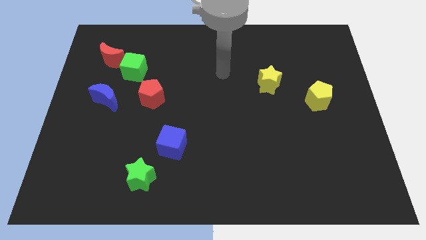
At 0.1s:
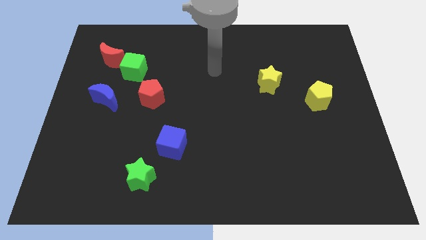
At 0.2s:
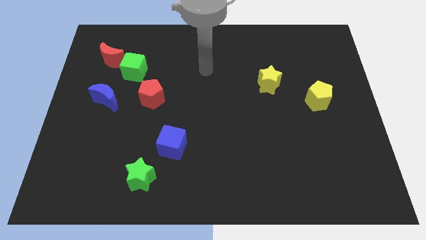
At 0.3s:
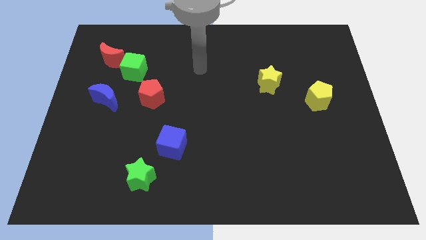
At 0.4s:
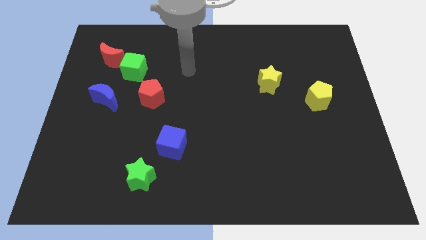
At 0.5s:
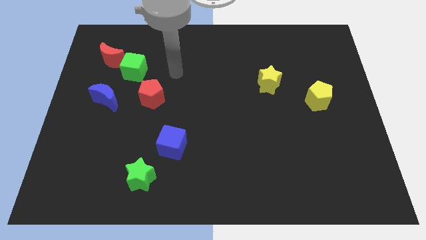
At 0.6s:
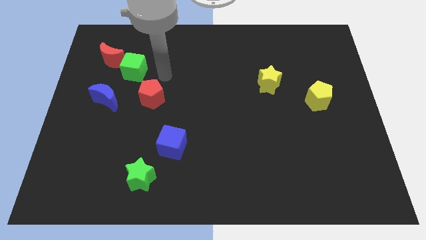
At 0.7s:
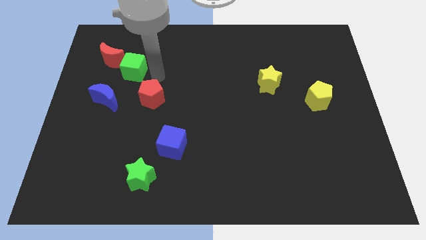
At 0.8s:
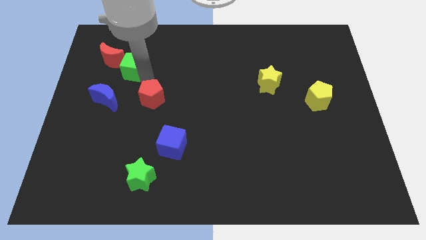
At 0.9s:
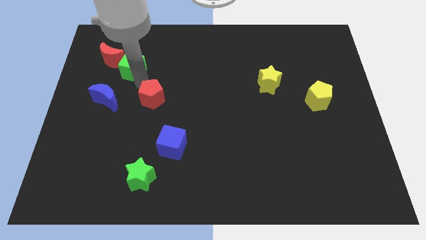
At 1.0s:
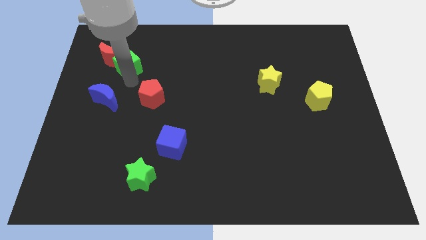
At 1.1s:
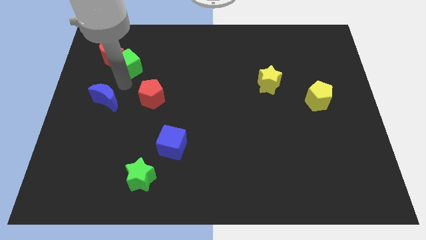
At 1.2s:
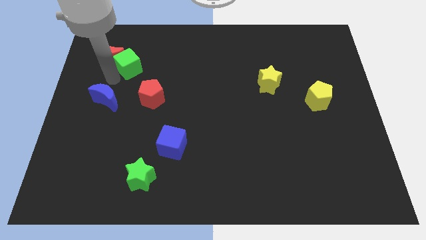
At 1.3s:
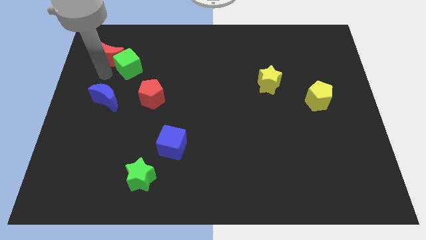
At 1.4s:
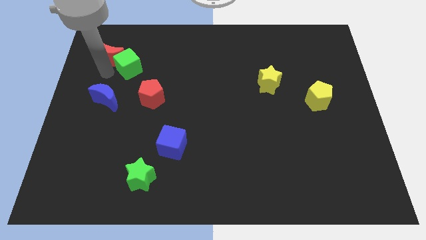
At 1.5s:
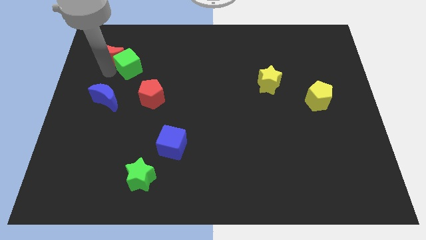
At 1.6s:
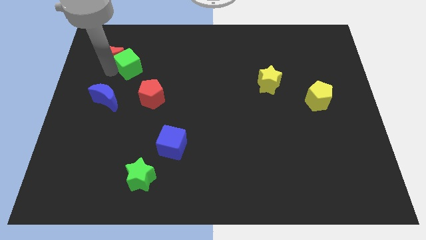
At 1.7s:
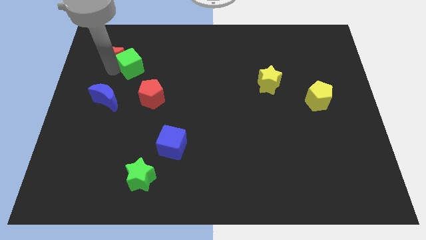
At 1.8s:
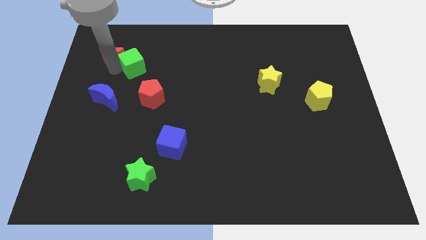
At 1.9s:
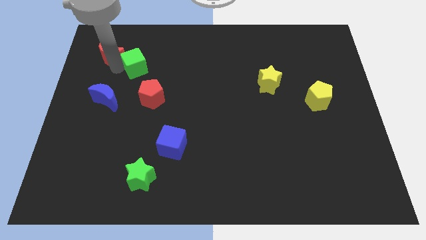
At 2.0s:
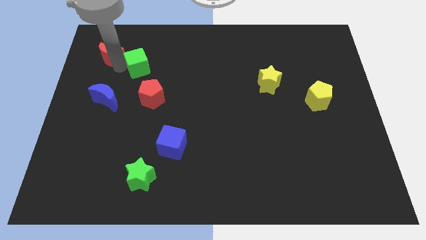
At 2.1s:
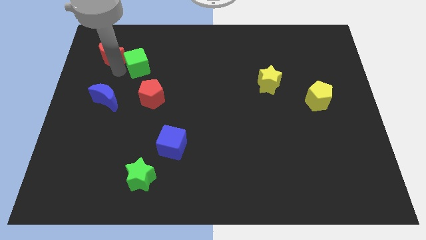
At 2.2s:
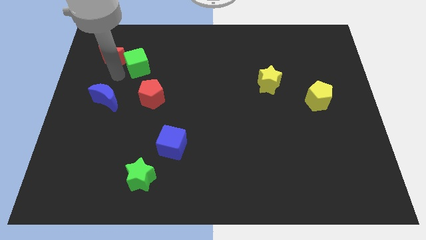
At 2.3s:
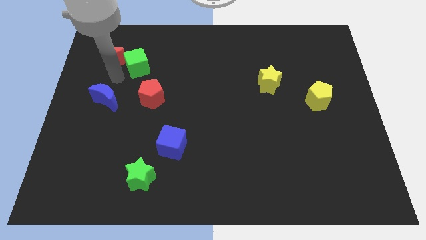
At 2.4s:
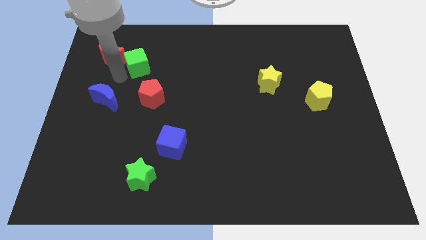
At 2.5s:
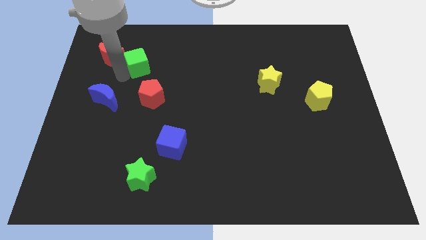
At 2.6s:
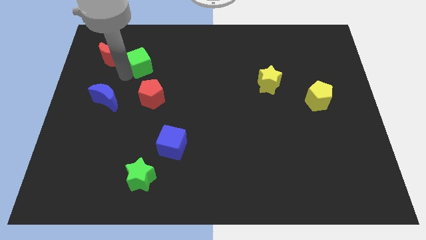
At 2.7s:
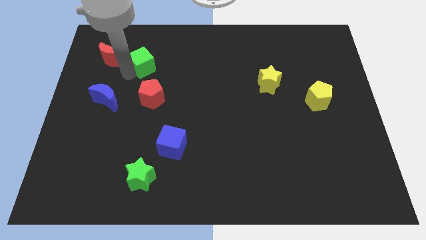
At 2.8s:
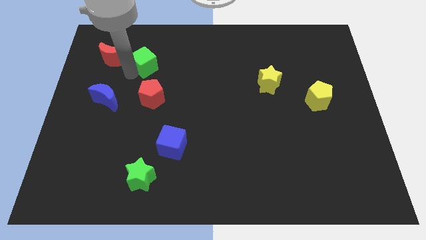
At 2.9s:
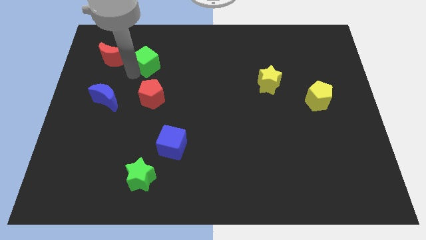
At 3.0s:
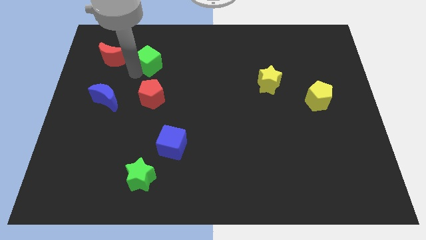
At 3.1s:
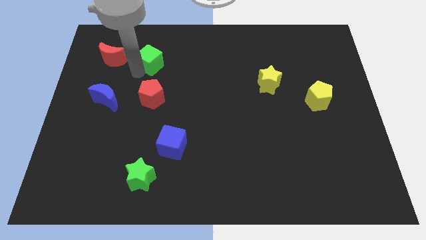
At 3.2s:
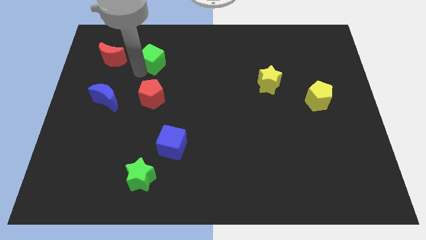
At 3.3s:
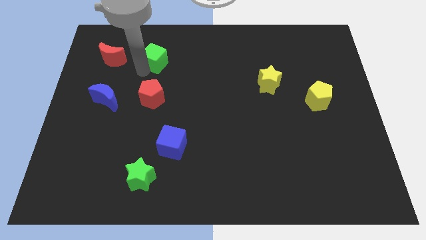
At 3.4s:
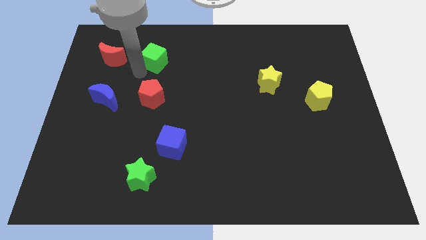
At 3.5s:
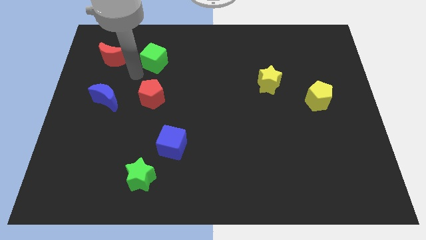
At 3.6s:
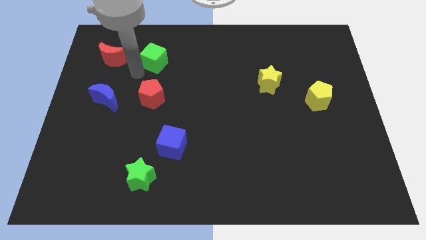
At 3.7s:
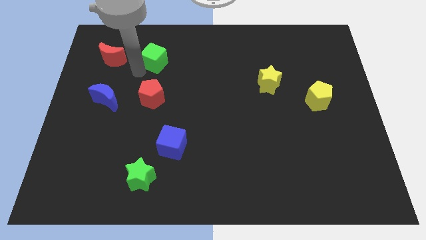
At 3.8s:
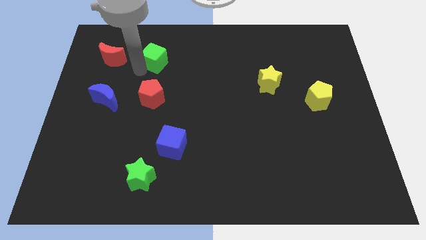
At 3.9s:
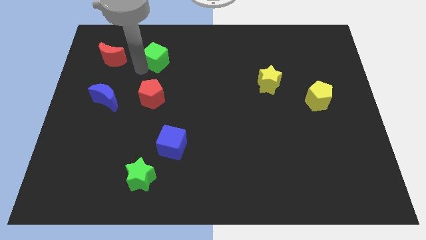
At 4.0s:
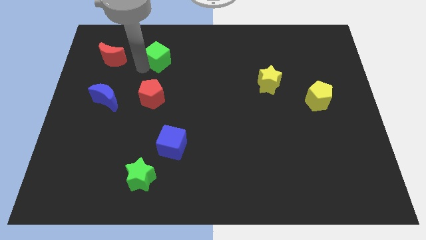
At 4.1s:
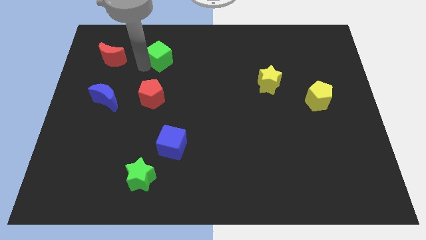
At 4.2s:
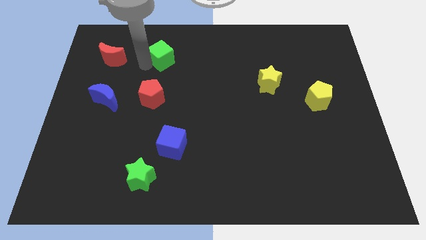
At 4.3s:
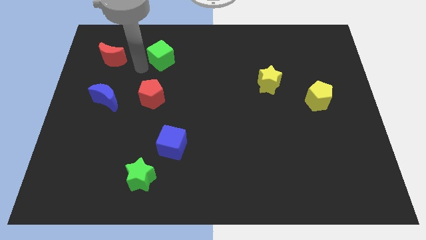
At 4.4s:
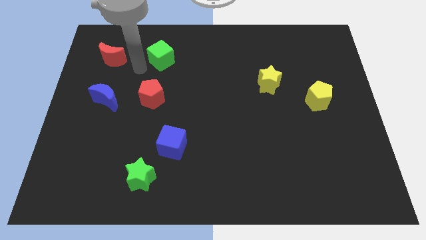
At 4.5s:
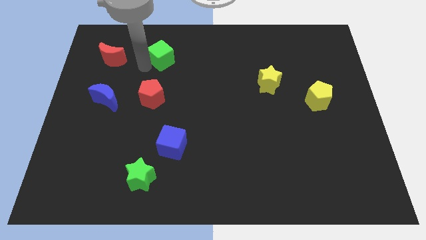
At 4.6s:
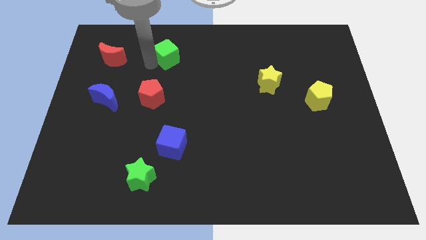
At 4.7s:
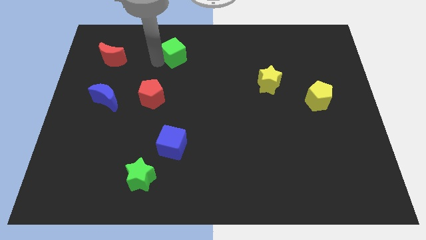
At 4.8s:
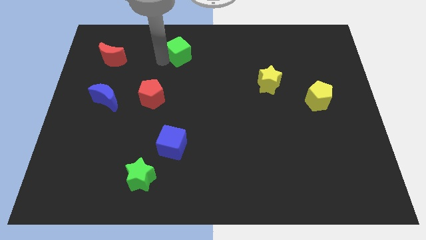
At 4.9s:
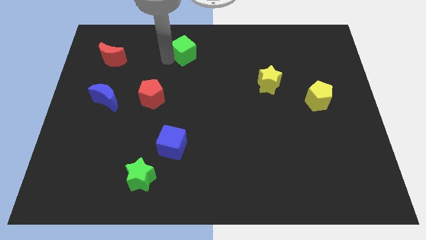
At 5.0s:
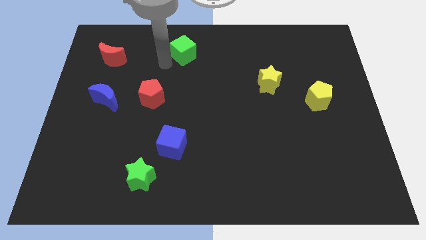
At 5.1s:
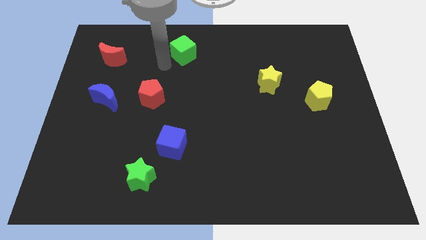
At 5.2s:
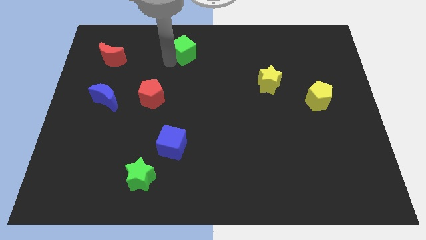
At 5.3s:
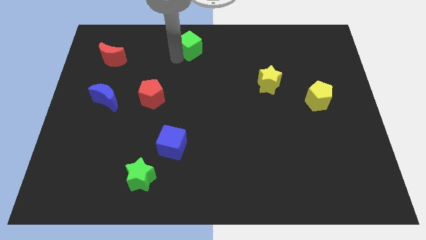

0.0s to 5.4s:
put the green cube to the top

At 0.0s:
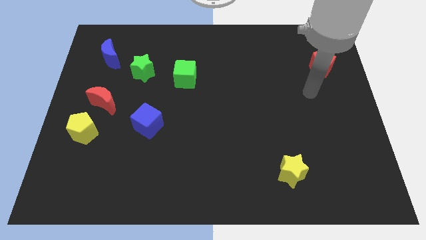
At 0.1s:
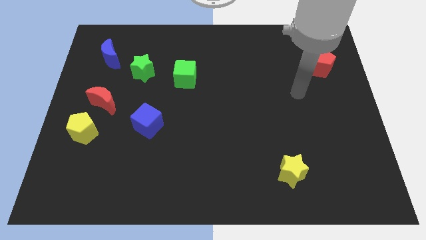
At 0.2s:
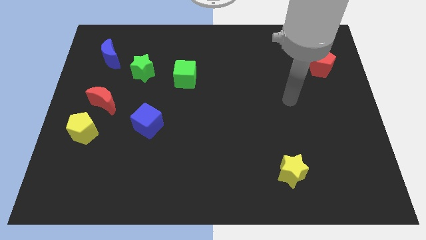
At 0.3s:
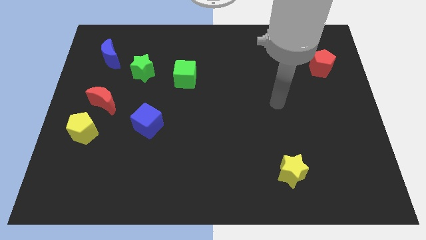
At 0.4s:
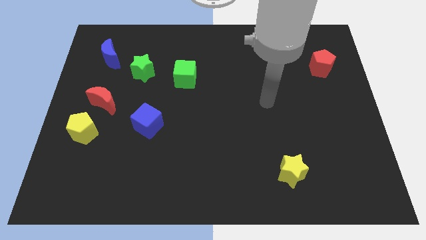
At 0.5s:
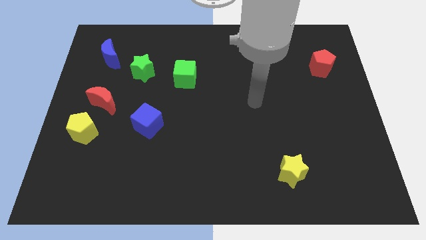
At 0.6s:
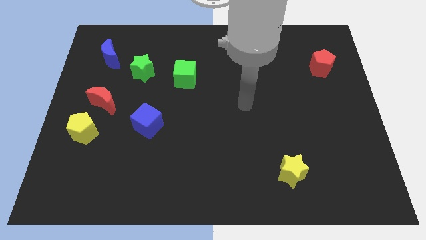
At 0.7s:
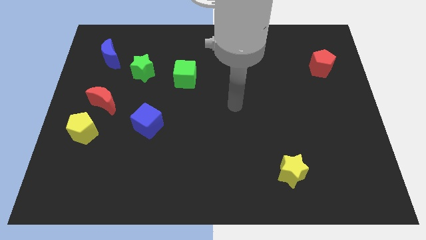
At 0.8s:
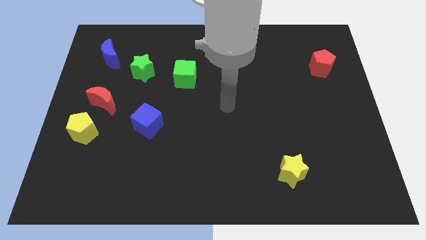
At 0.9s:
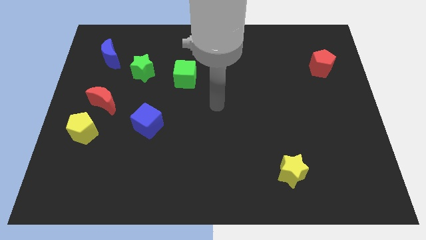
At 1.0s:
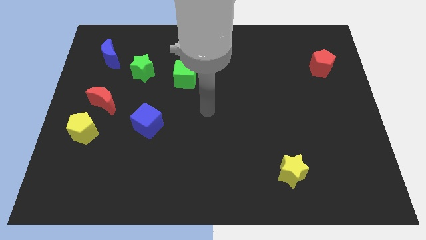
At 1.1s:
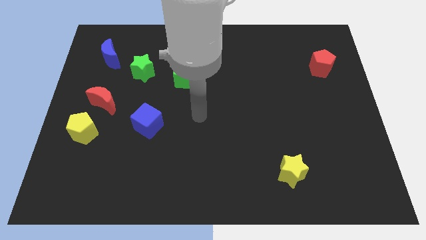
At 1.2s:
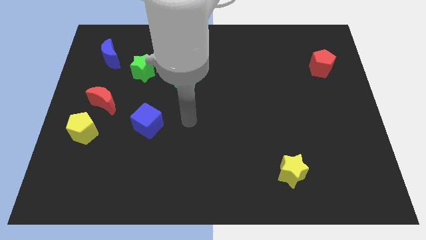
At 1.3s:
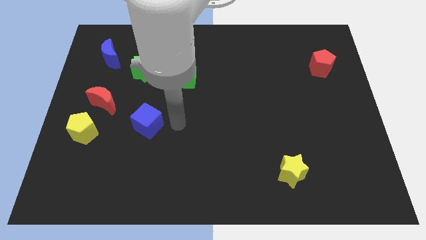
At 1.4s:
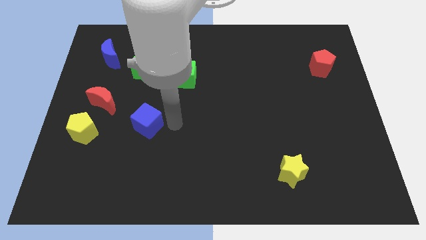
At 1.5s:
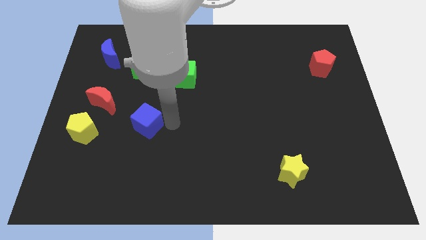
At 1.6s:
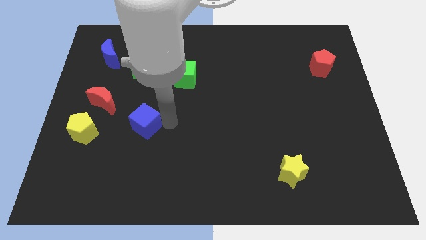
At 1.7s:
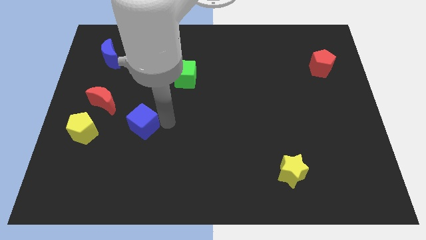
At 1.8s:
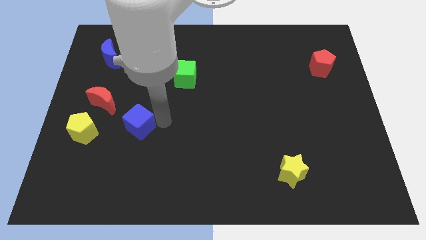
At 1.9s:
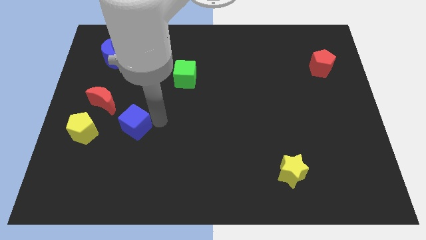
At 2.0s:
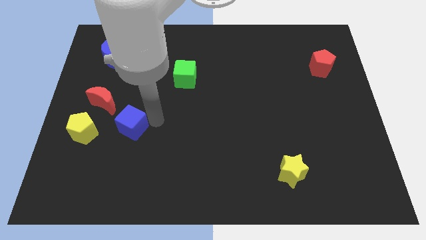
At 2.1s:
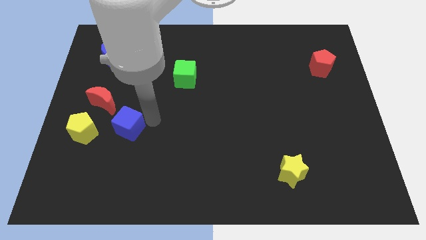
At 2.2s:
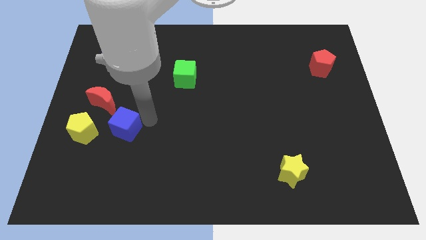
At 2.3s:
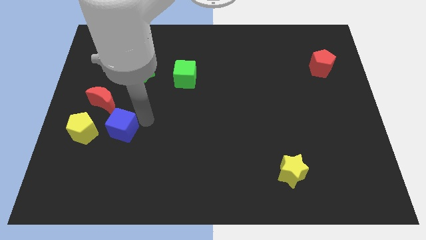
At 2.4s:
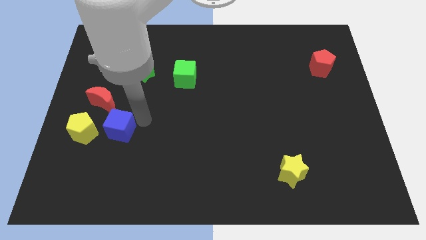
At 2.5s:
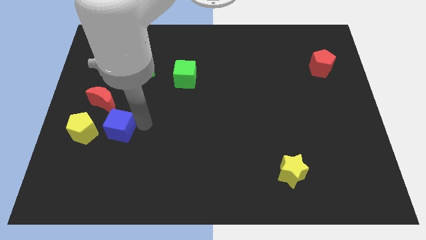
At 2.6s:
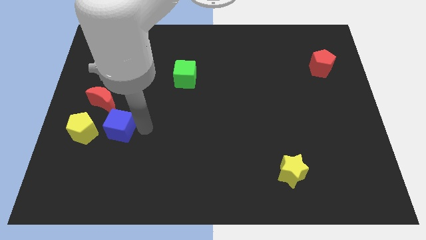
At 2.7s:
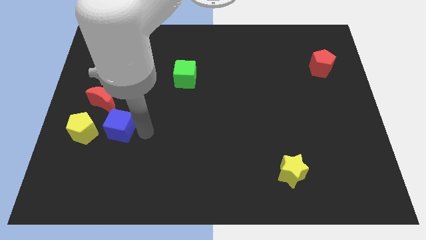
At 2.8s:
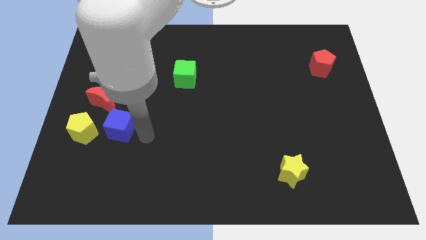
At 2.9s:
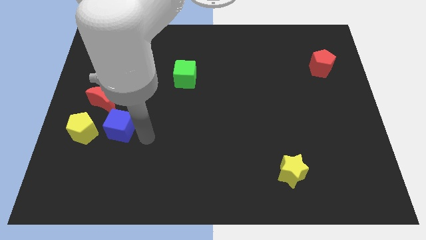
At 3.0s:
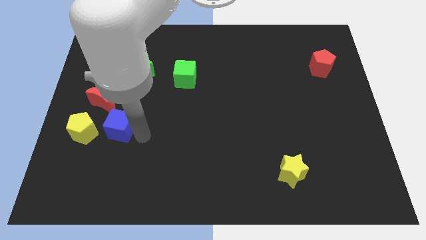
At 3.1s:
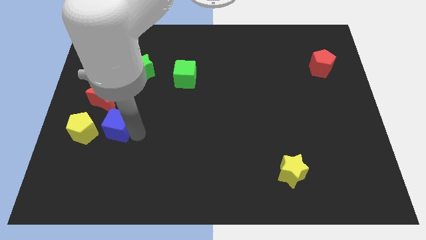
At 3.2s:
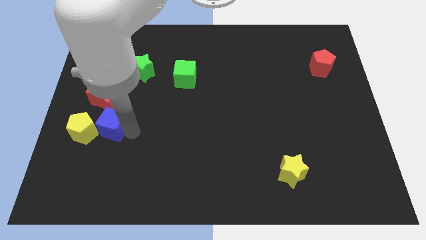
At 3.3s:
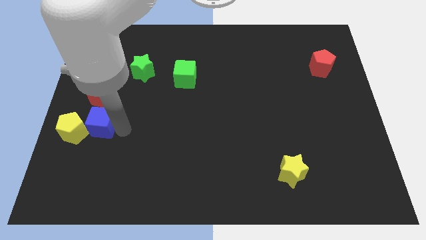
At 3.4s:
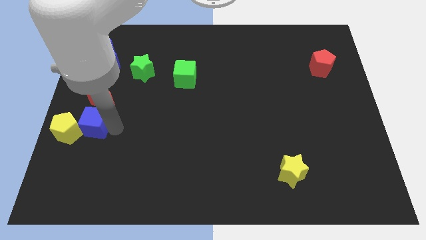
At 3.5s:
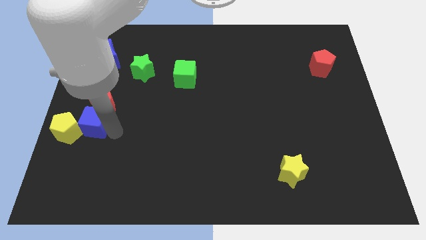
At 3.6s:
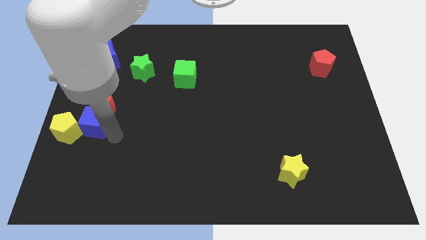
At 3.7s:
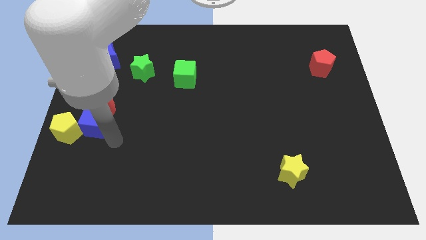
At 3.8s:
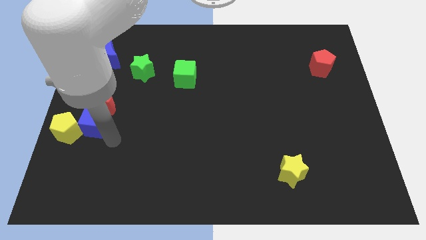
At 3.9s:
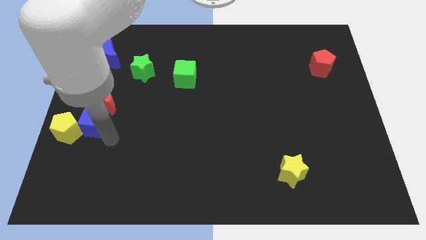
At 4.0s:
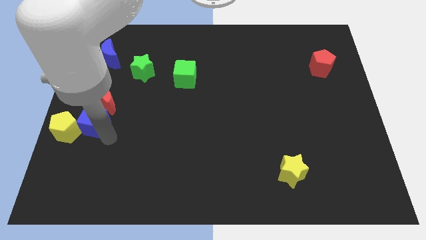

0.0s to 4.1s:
put the blue cube to the left side
